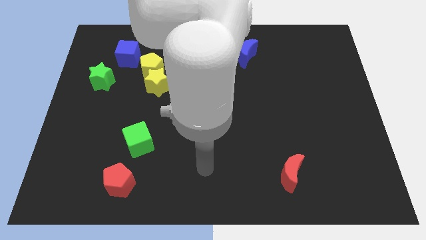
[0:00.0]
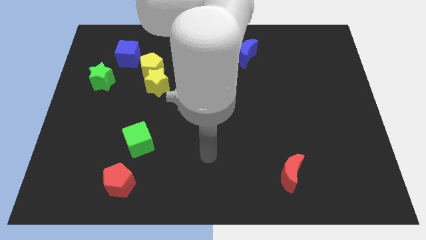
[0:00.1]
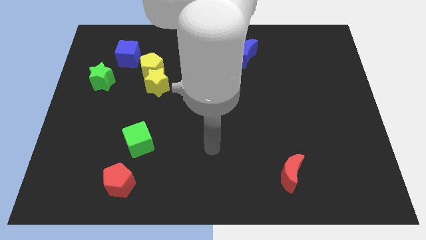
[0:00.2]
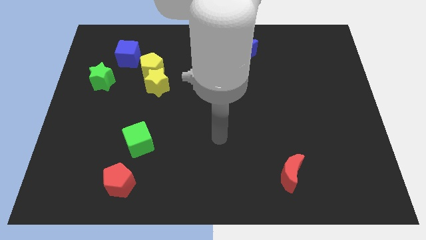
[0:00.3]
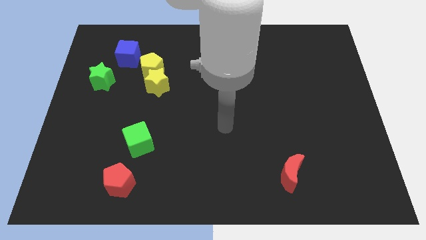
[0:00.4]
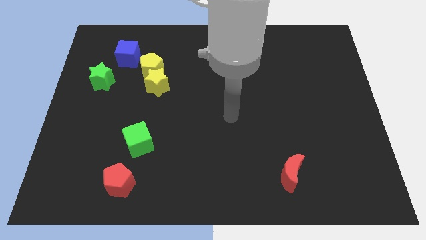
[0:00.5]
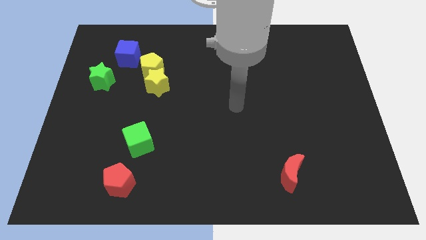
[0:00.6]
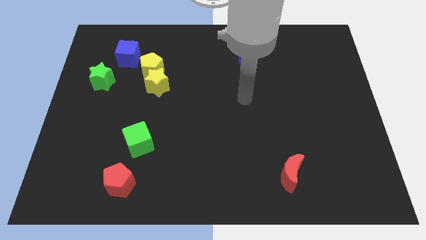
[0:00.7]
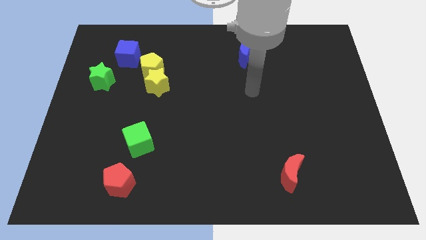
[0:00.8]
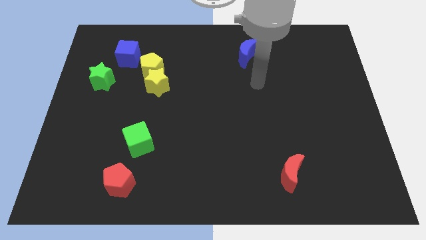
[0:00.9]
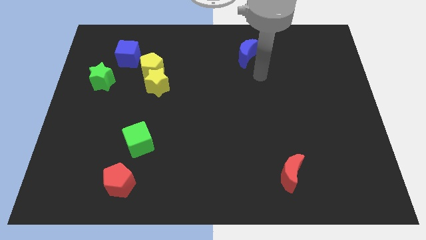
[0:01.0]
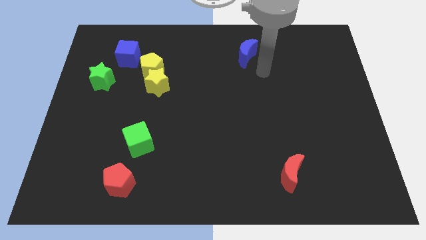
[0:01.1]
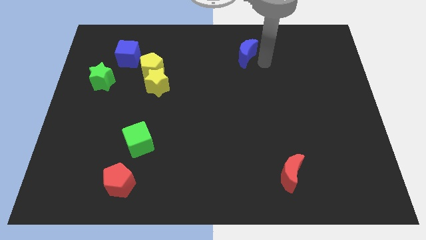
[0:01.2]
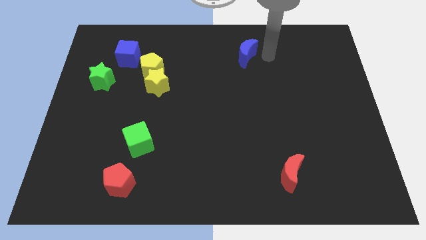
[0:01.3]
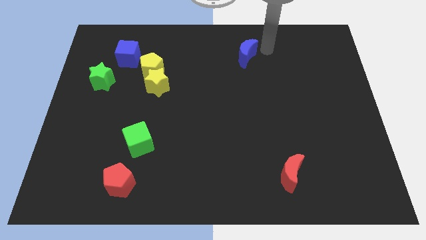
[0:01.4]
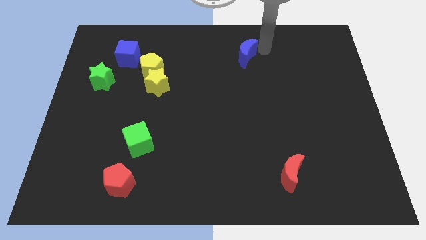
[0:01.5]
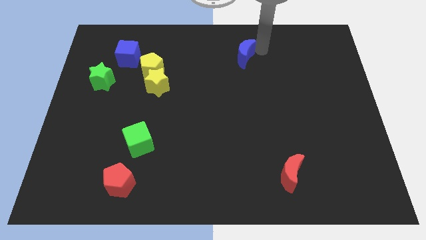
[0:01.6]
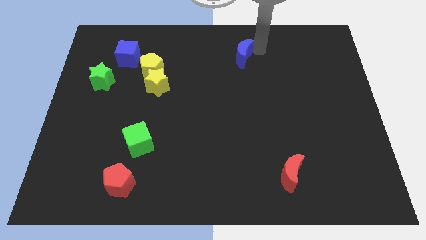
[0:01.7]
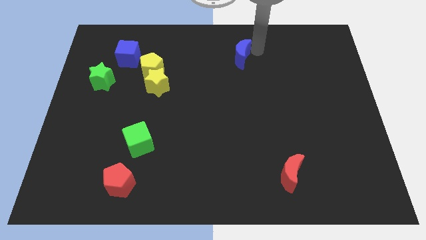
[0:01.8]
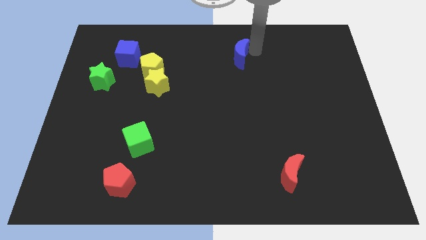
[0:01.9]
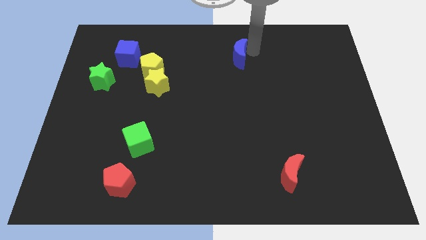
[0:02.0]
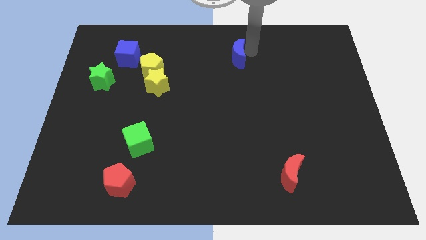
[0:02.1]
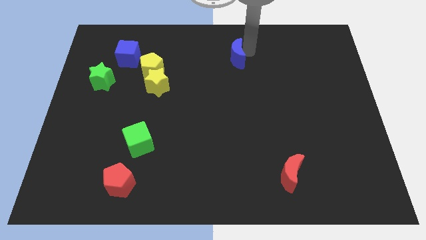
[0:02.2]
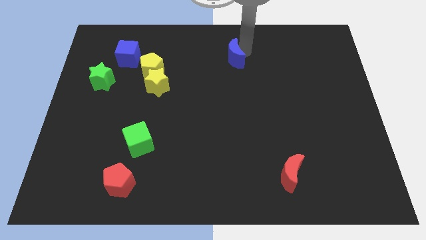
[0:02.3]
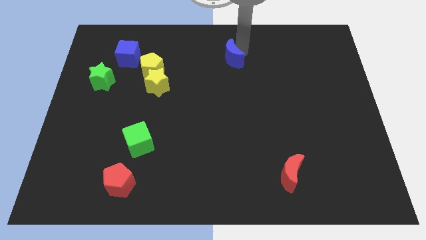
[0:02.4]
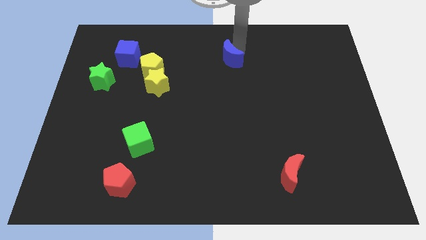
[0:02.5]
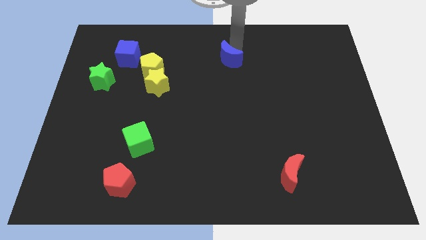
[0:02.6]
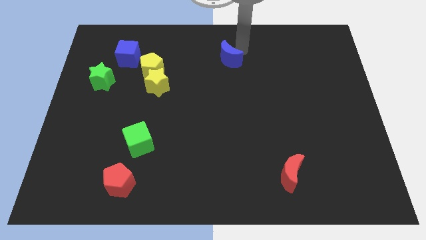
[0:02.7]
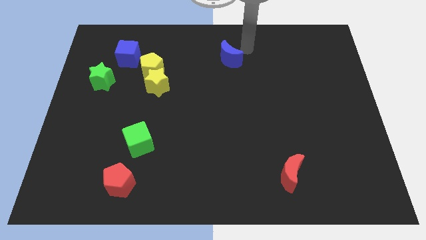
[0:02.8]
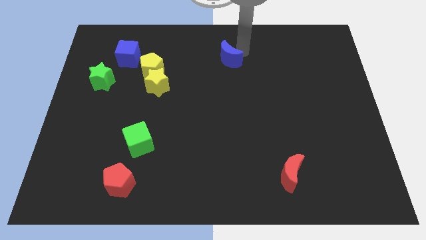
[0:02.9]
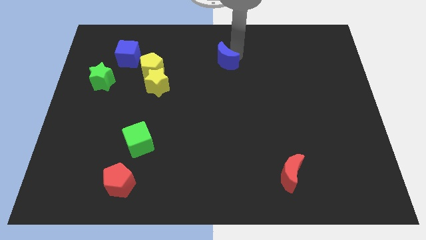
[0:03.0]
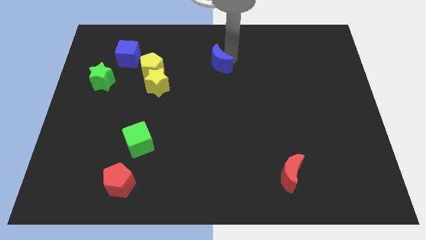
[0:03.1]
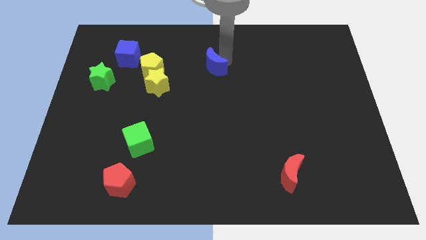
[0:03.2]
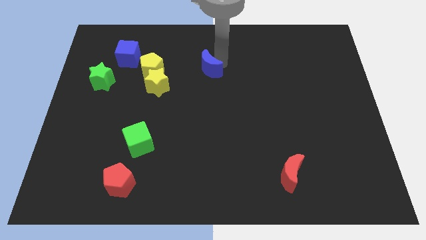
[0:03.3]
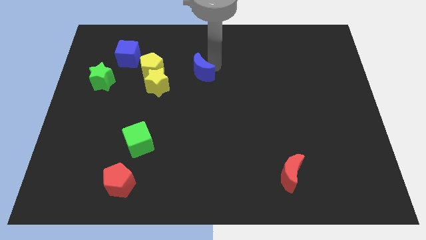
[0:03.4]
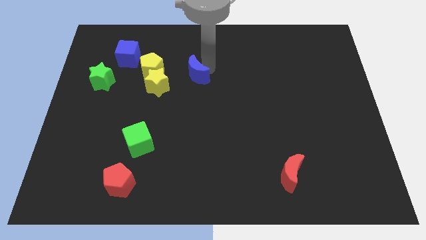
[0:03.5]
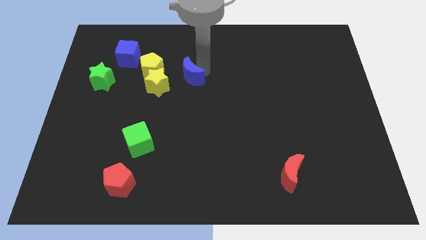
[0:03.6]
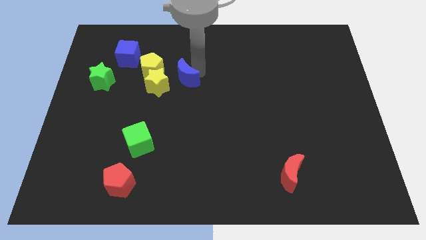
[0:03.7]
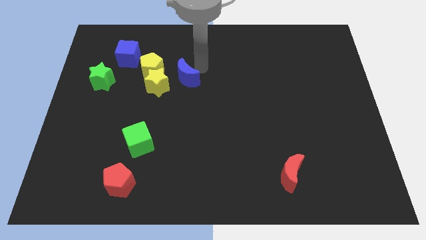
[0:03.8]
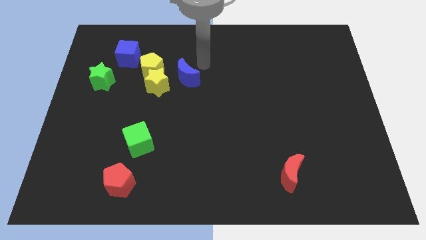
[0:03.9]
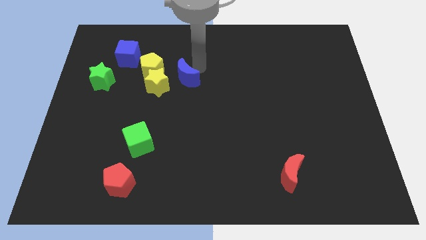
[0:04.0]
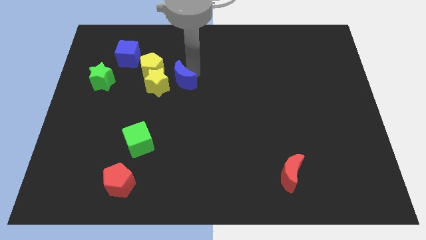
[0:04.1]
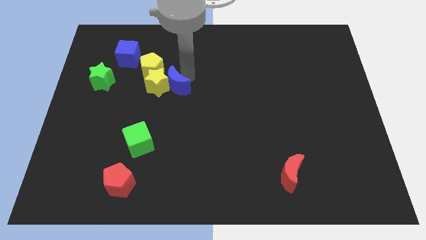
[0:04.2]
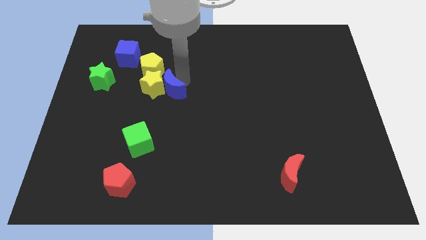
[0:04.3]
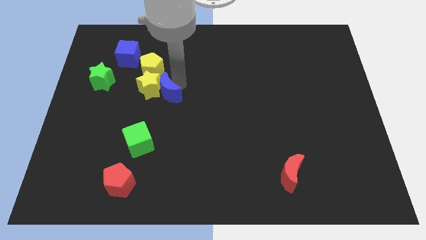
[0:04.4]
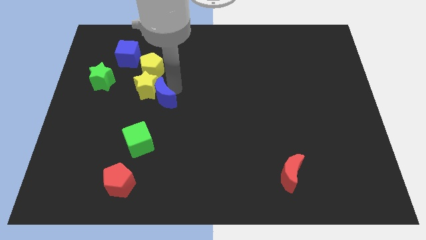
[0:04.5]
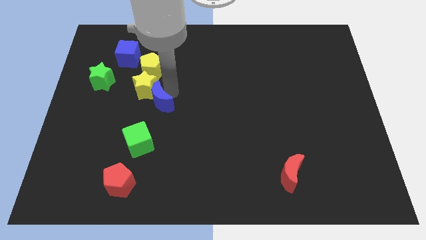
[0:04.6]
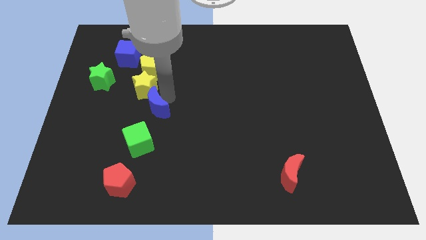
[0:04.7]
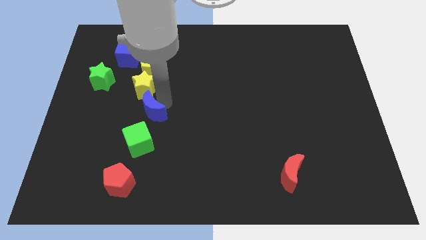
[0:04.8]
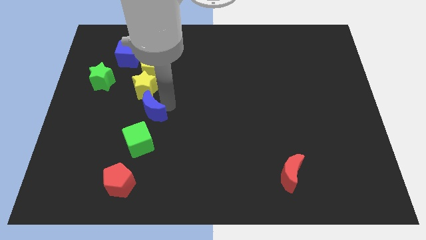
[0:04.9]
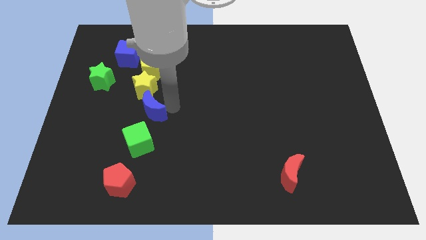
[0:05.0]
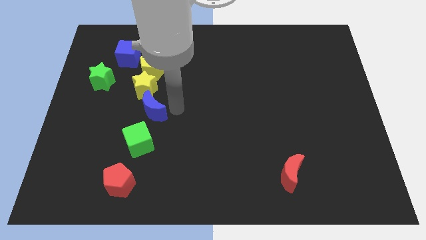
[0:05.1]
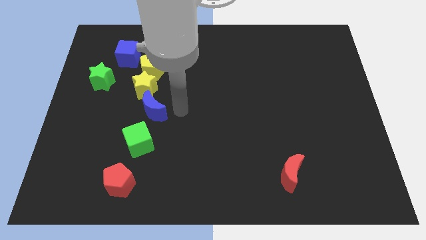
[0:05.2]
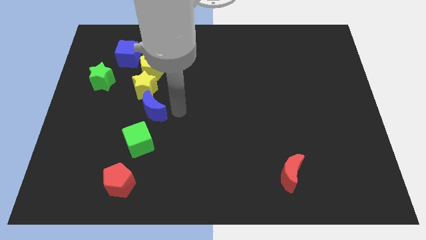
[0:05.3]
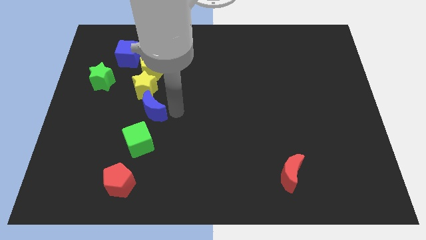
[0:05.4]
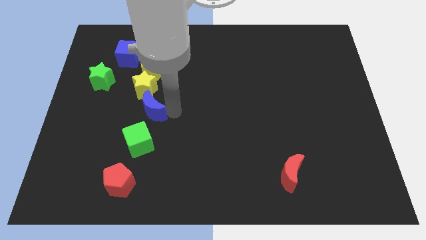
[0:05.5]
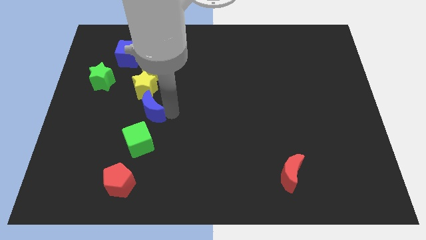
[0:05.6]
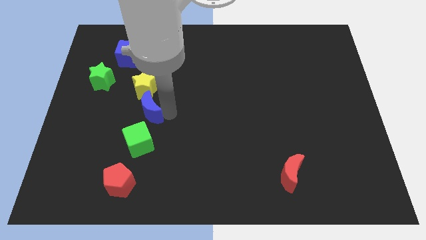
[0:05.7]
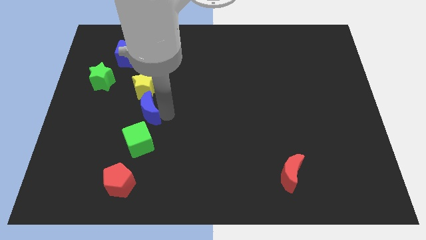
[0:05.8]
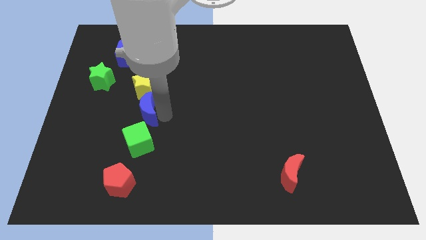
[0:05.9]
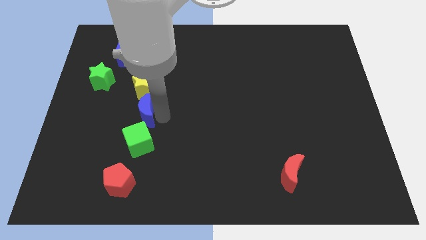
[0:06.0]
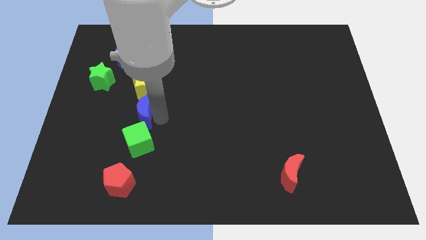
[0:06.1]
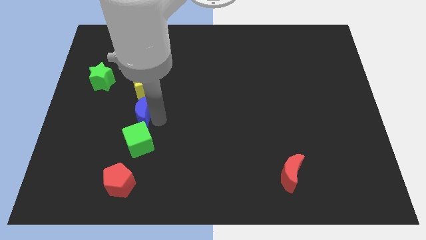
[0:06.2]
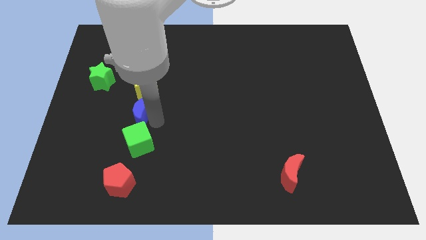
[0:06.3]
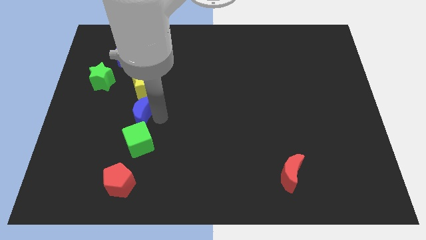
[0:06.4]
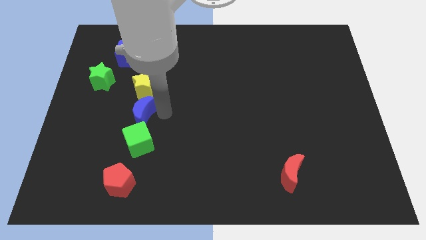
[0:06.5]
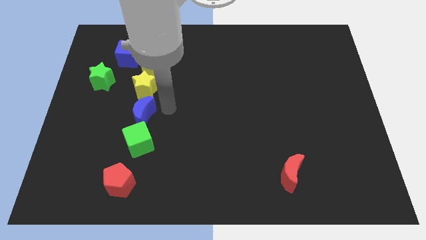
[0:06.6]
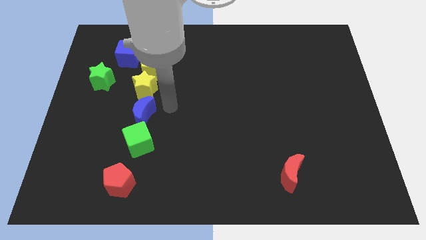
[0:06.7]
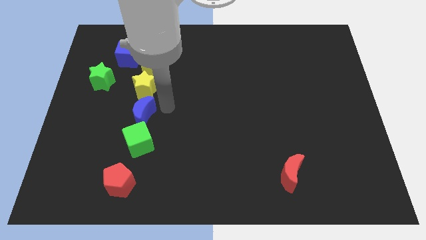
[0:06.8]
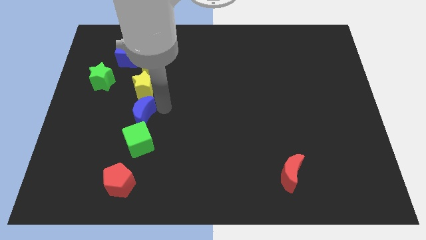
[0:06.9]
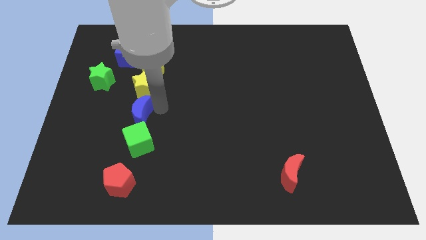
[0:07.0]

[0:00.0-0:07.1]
put the blue moon diagonally up and to the left of the green cube
